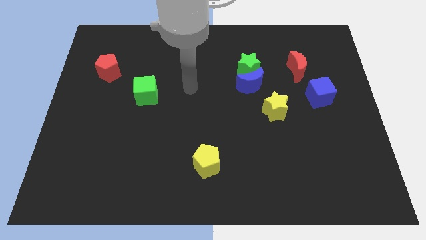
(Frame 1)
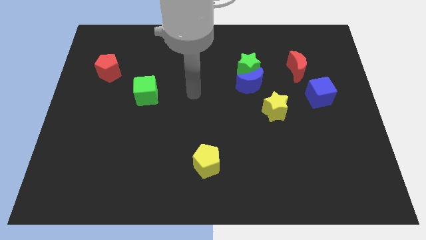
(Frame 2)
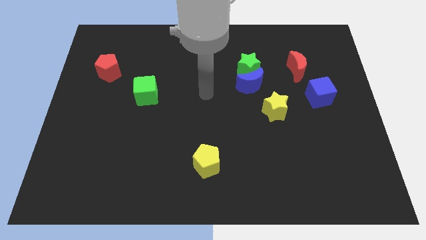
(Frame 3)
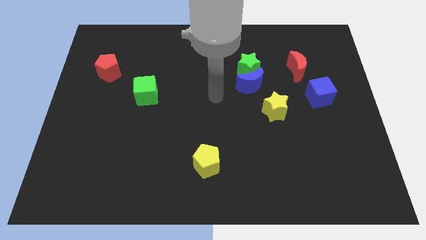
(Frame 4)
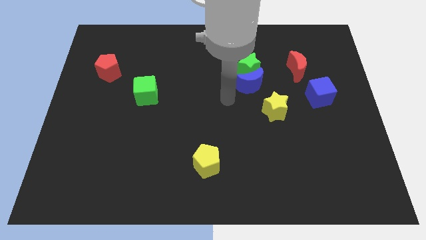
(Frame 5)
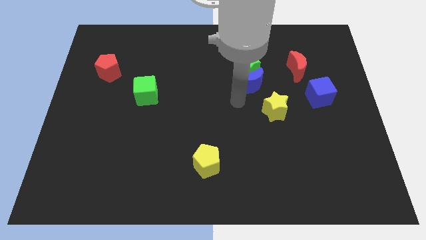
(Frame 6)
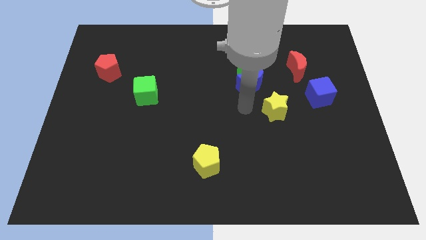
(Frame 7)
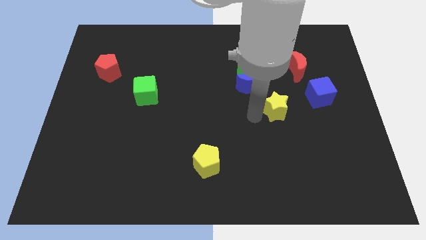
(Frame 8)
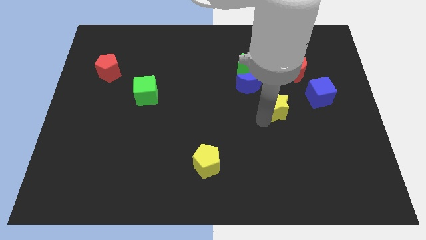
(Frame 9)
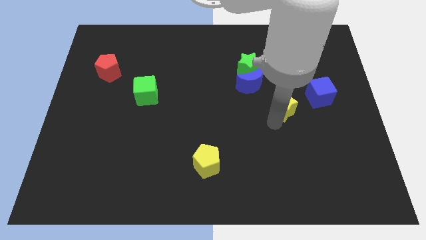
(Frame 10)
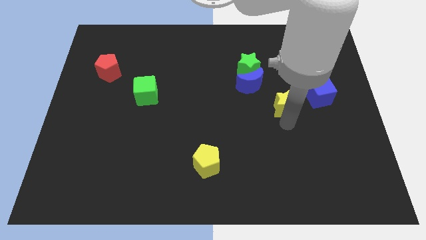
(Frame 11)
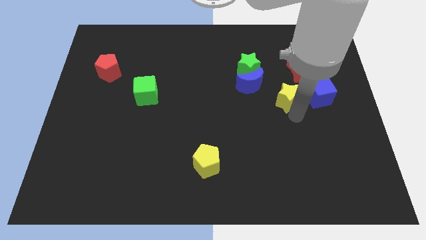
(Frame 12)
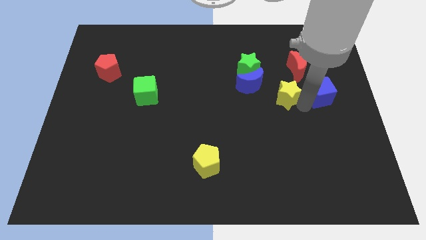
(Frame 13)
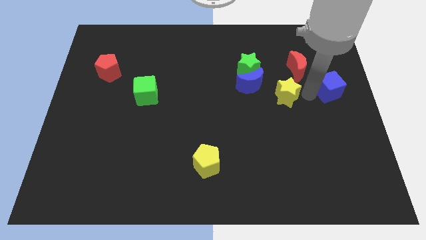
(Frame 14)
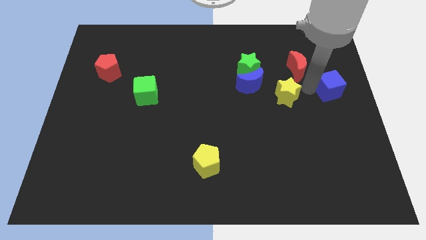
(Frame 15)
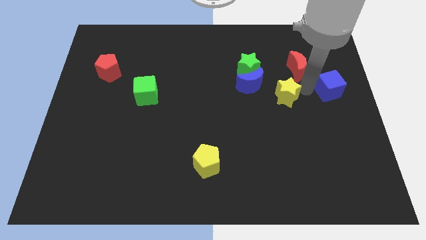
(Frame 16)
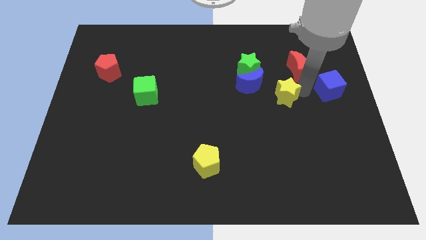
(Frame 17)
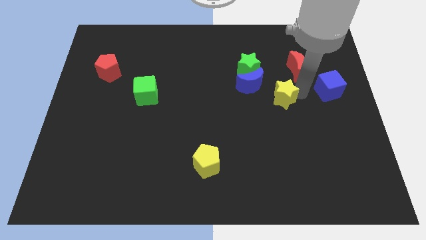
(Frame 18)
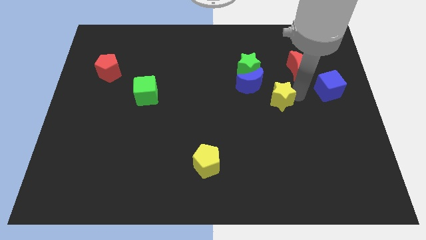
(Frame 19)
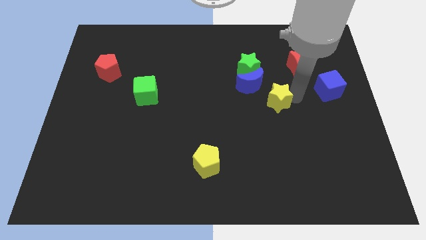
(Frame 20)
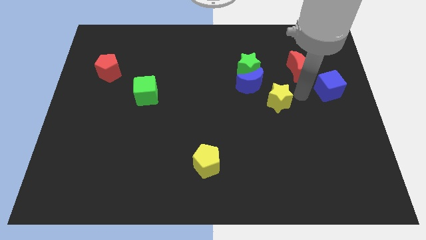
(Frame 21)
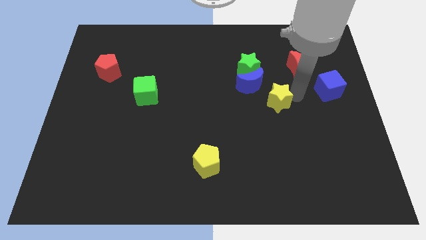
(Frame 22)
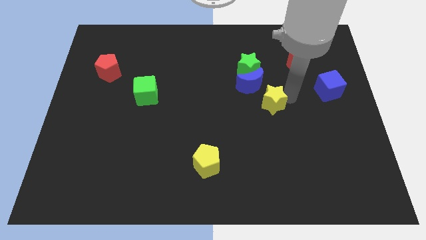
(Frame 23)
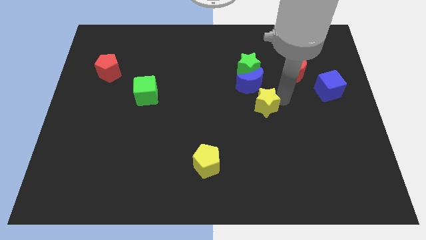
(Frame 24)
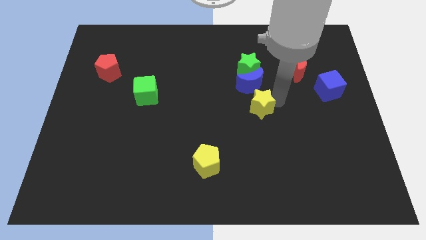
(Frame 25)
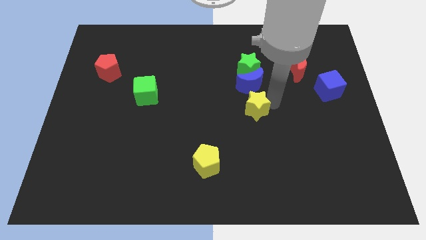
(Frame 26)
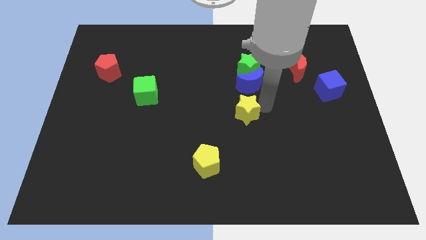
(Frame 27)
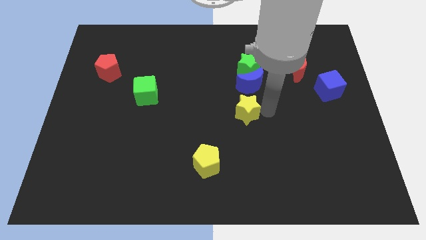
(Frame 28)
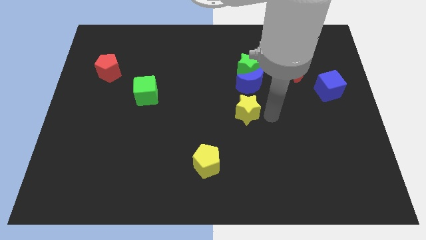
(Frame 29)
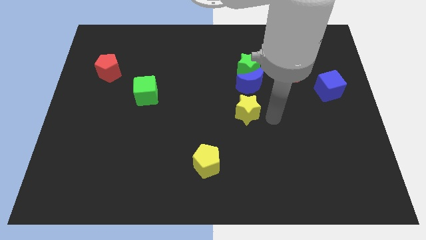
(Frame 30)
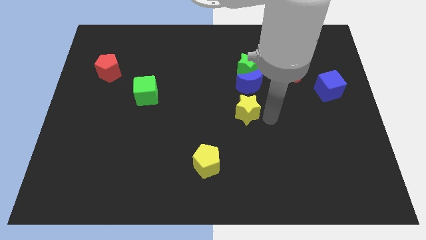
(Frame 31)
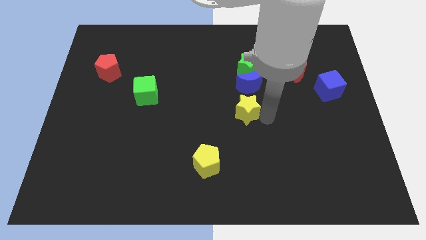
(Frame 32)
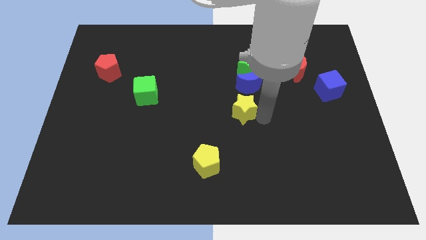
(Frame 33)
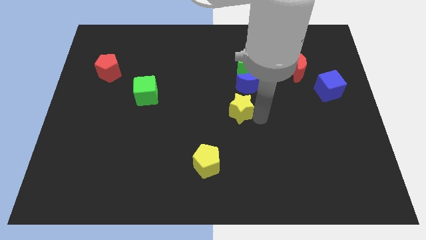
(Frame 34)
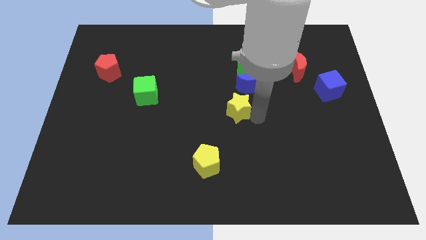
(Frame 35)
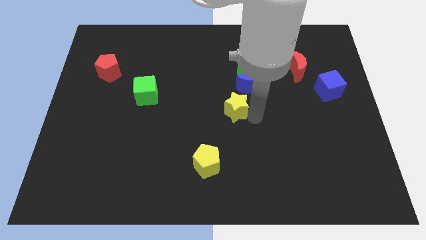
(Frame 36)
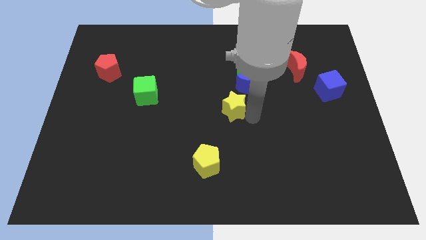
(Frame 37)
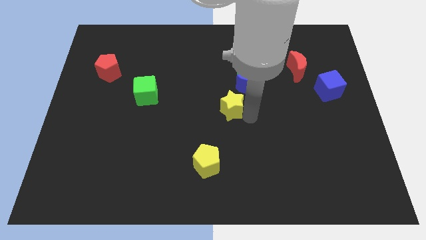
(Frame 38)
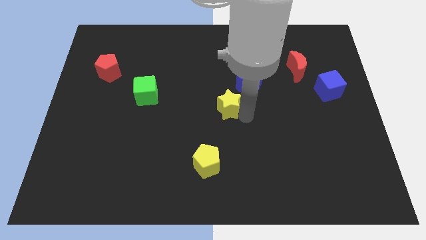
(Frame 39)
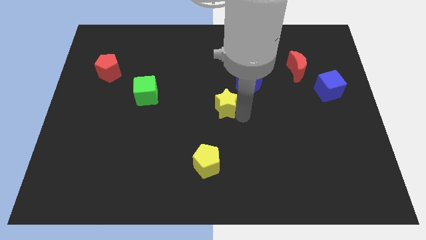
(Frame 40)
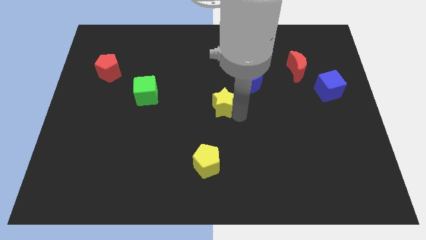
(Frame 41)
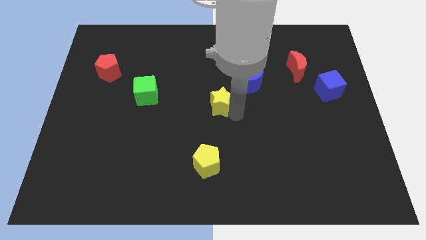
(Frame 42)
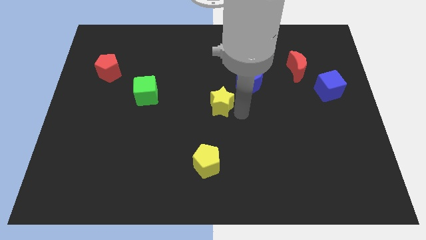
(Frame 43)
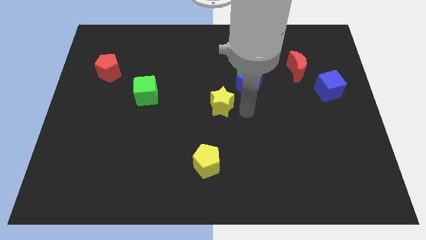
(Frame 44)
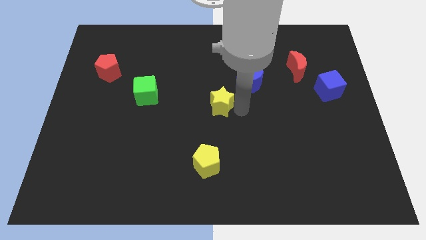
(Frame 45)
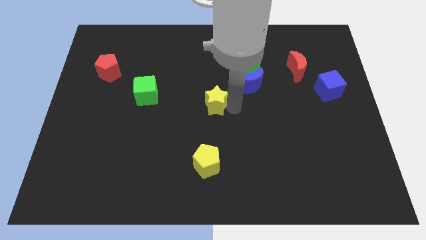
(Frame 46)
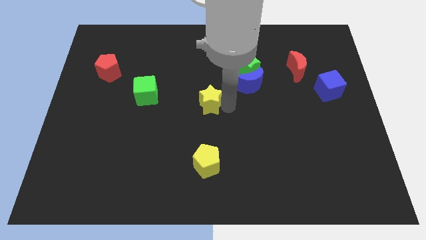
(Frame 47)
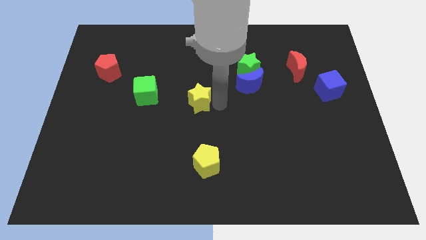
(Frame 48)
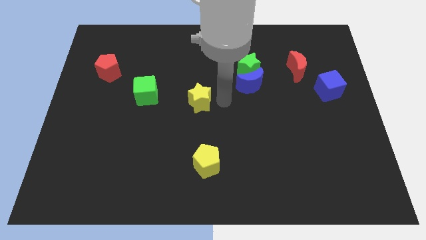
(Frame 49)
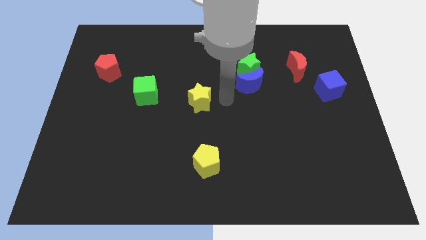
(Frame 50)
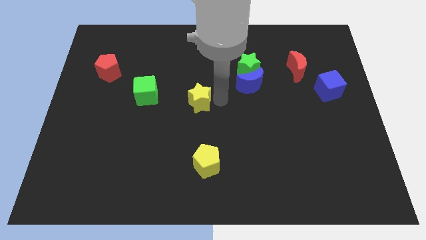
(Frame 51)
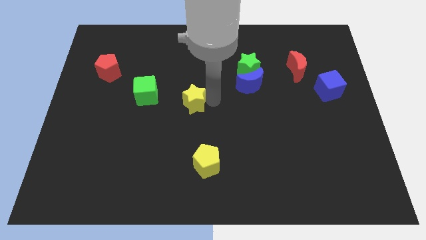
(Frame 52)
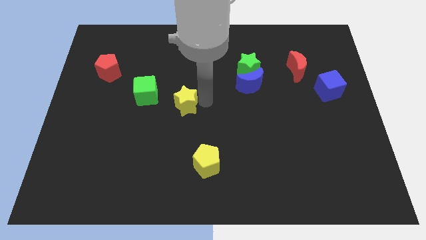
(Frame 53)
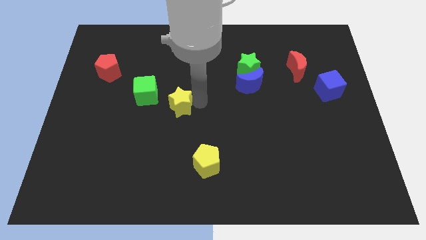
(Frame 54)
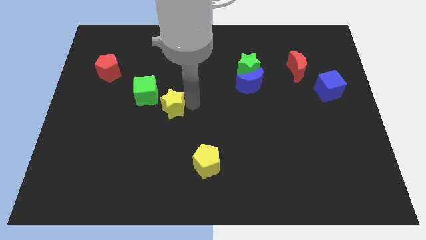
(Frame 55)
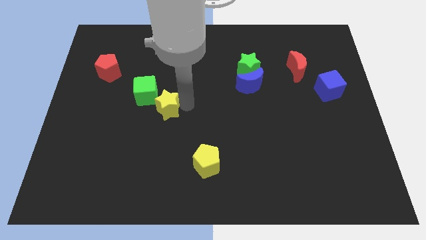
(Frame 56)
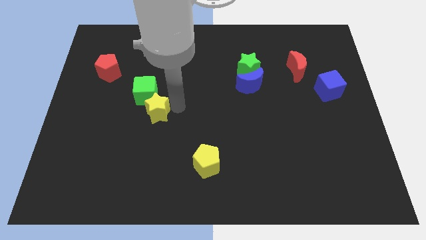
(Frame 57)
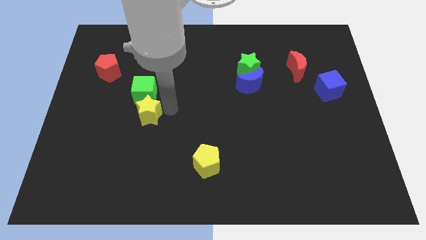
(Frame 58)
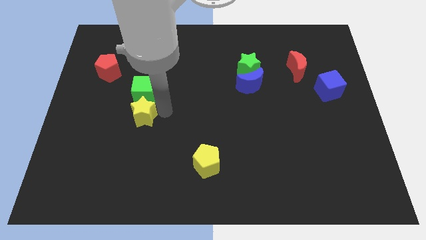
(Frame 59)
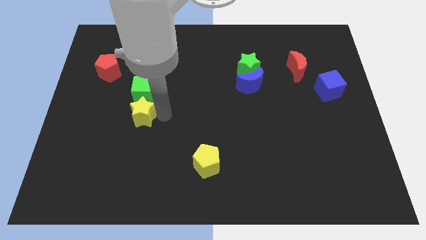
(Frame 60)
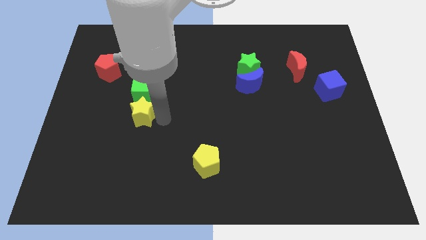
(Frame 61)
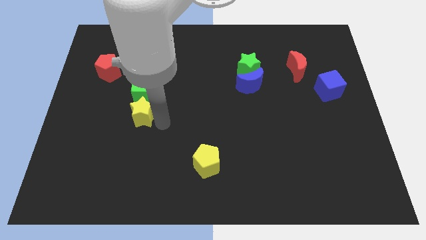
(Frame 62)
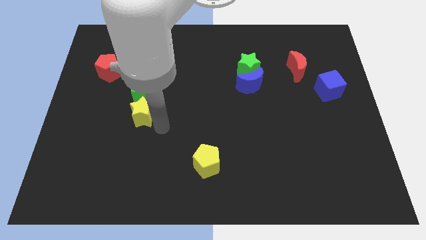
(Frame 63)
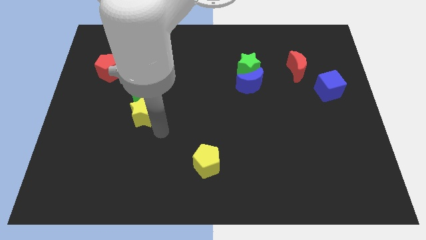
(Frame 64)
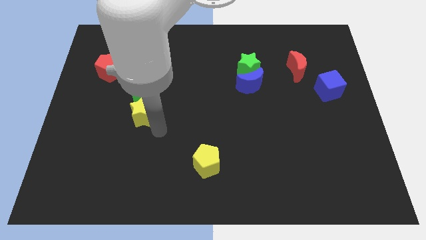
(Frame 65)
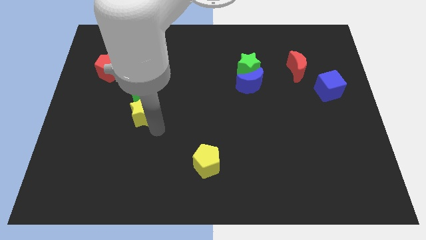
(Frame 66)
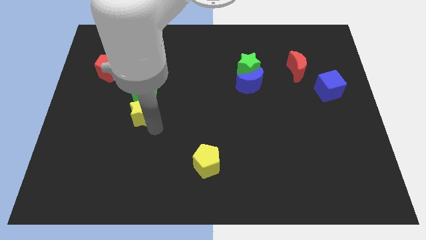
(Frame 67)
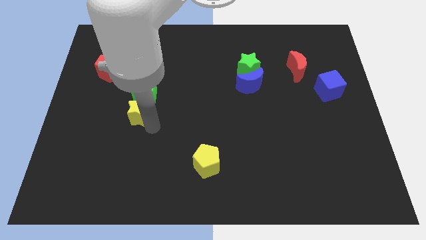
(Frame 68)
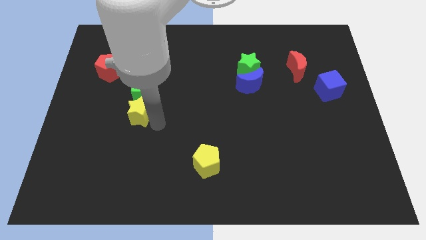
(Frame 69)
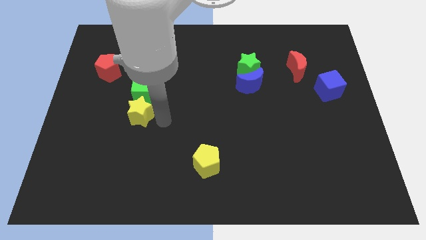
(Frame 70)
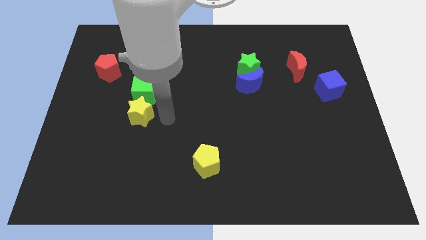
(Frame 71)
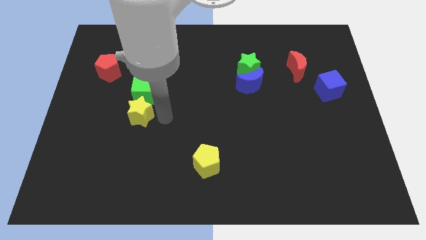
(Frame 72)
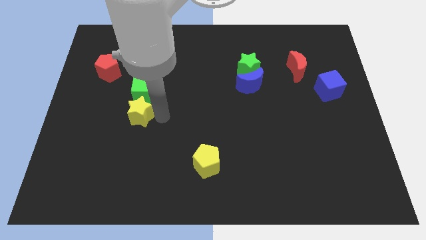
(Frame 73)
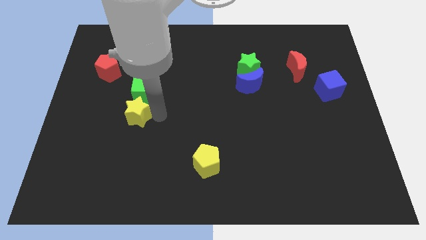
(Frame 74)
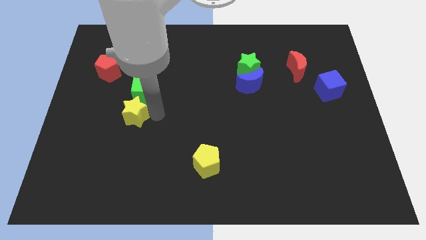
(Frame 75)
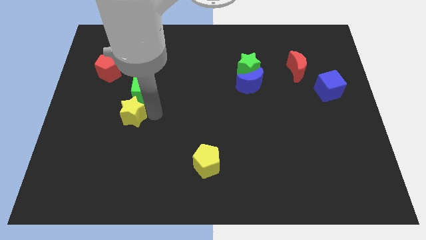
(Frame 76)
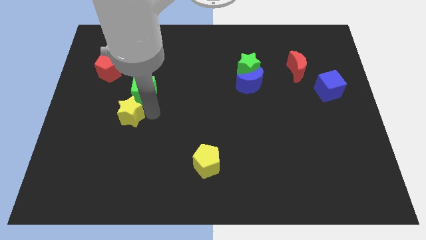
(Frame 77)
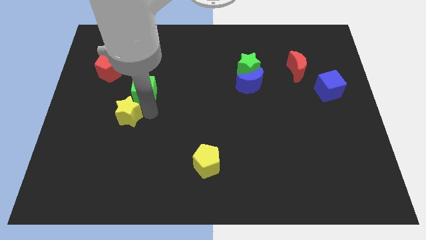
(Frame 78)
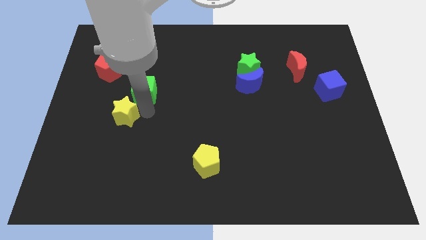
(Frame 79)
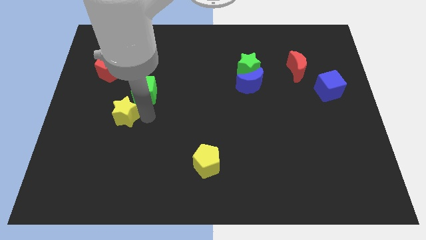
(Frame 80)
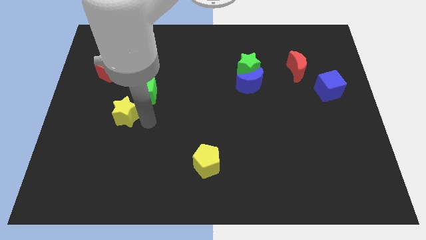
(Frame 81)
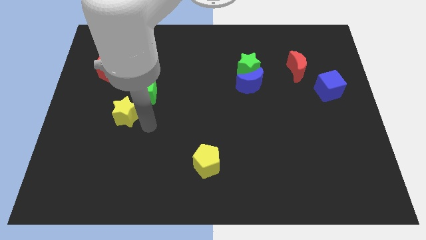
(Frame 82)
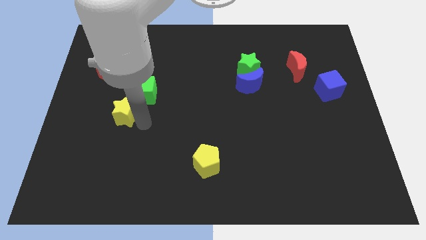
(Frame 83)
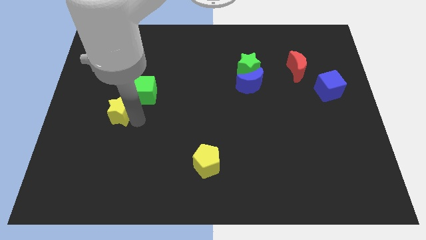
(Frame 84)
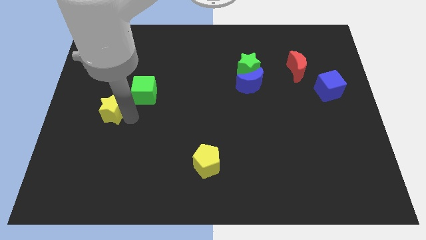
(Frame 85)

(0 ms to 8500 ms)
push the yellow star below the red pentagon
